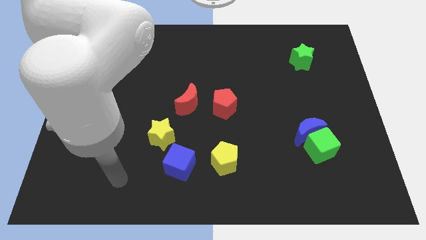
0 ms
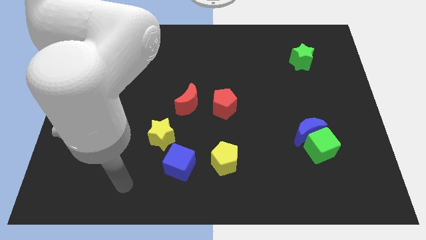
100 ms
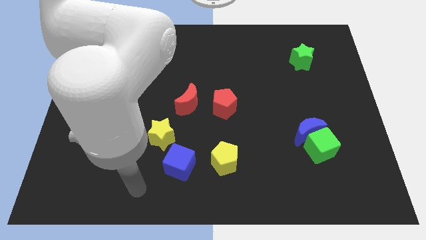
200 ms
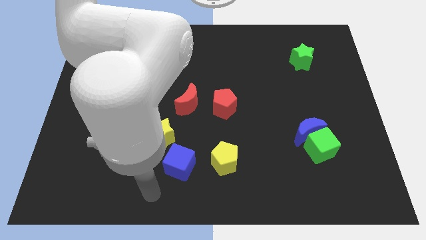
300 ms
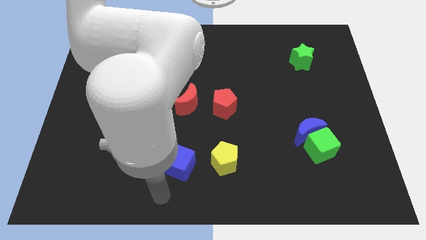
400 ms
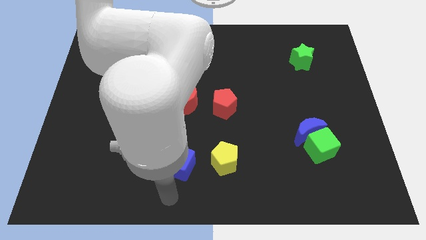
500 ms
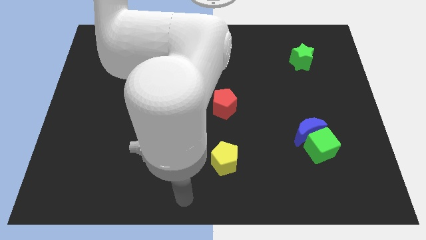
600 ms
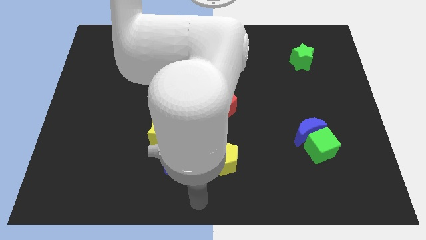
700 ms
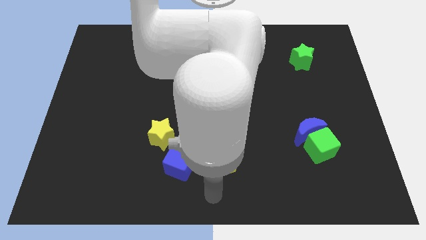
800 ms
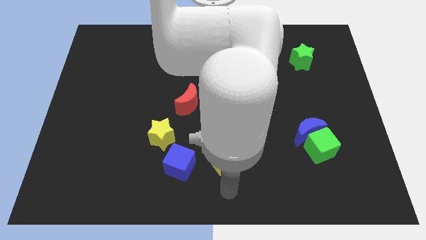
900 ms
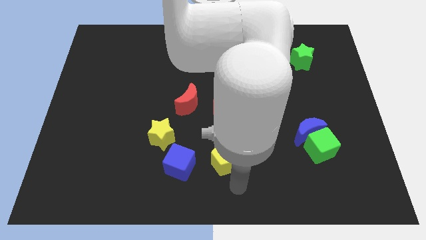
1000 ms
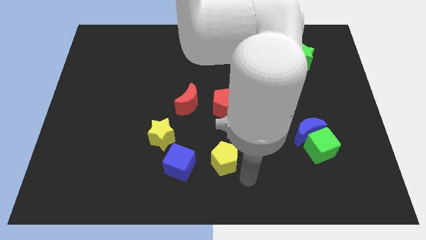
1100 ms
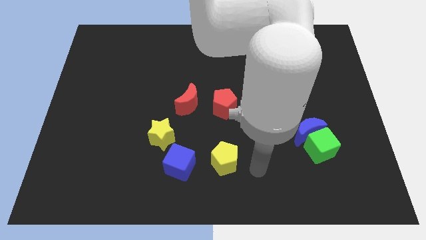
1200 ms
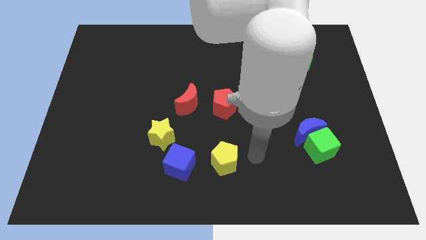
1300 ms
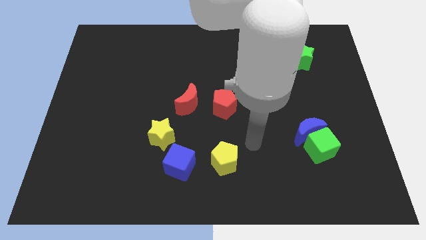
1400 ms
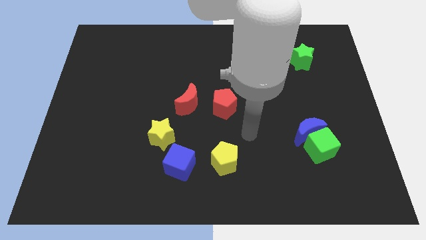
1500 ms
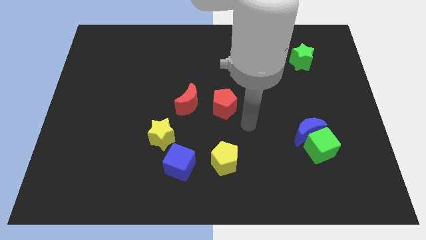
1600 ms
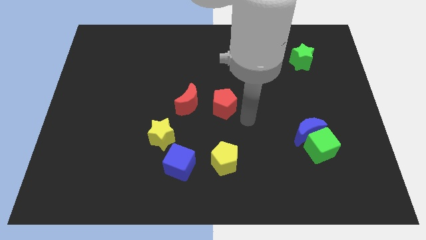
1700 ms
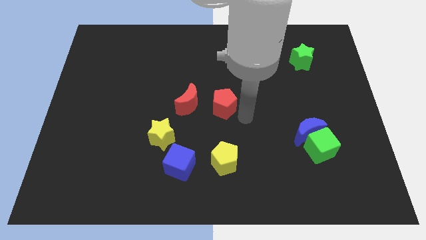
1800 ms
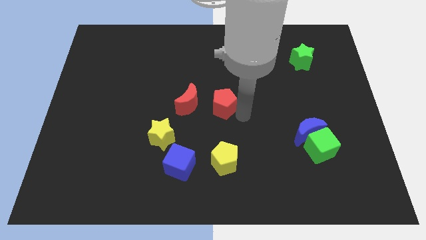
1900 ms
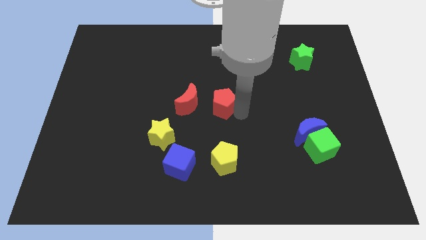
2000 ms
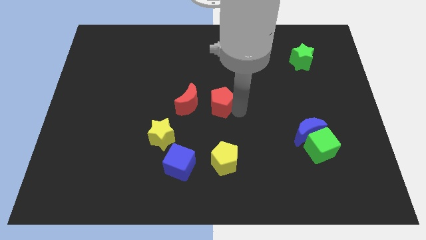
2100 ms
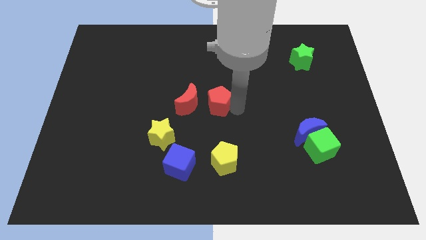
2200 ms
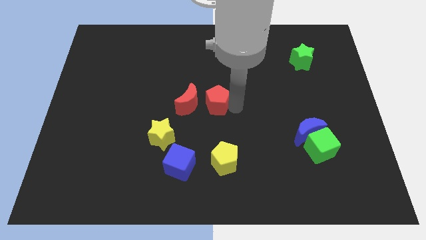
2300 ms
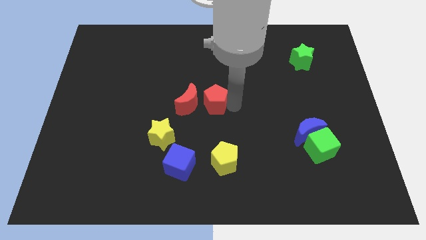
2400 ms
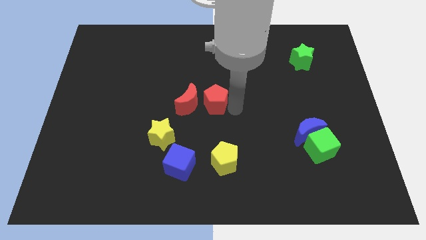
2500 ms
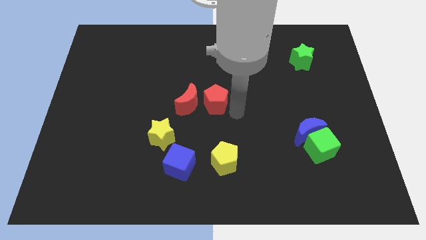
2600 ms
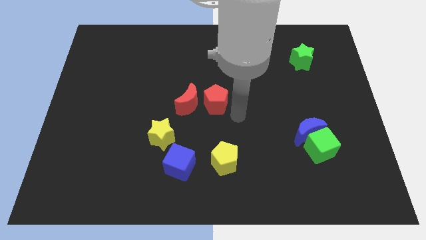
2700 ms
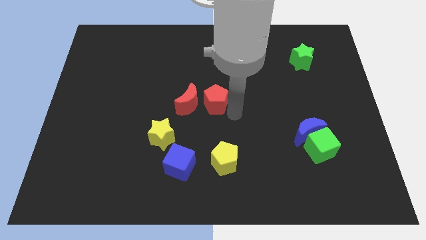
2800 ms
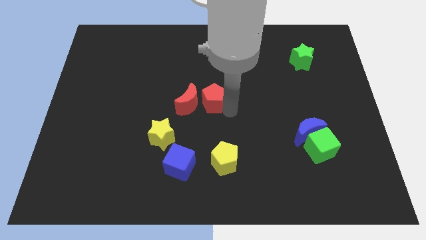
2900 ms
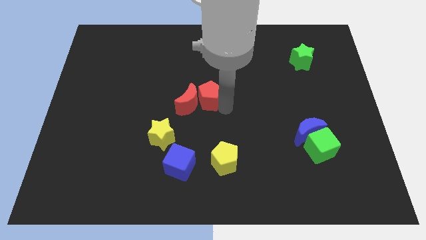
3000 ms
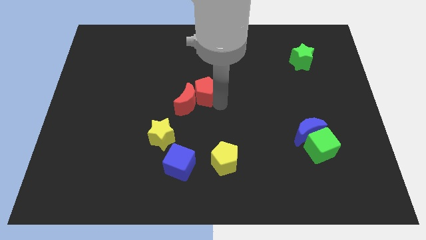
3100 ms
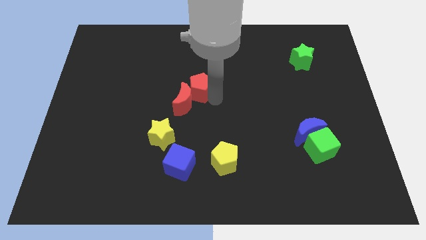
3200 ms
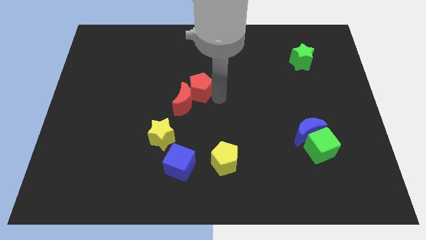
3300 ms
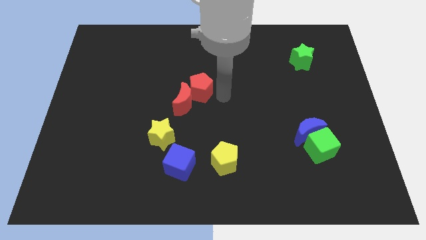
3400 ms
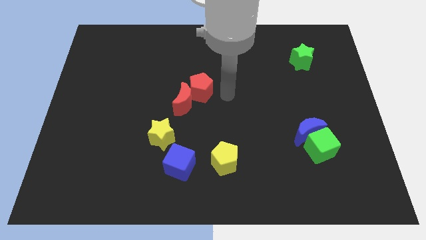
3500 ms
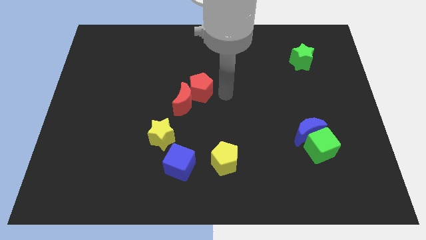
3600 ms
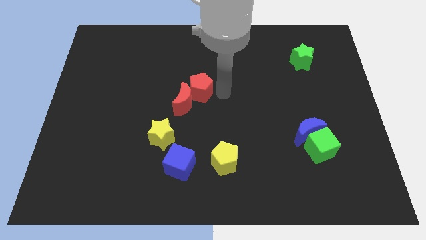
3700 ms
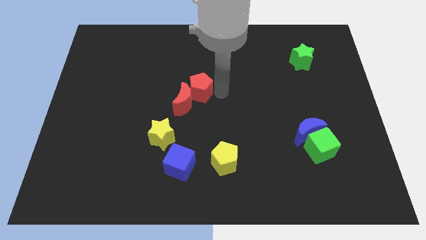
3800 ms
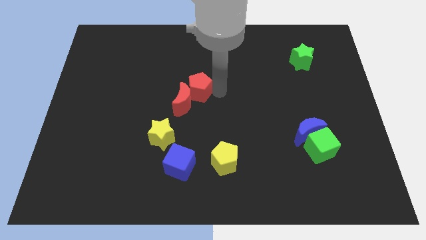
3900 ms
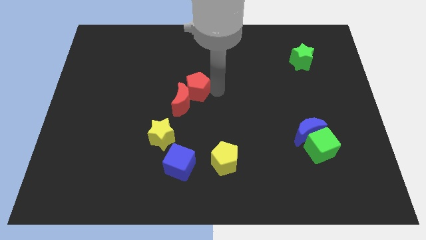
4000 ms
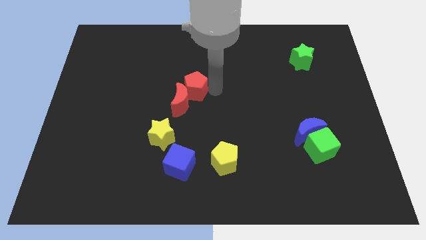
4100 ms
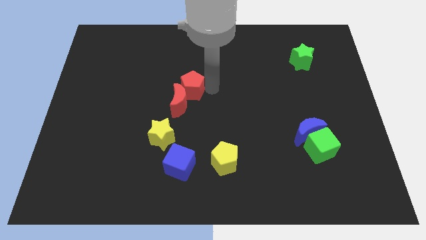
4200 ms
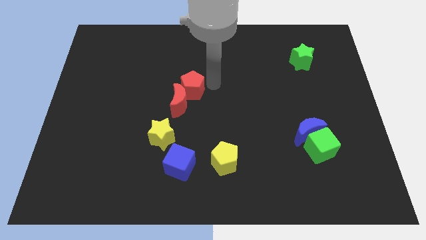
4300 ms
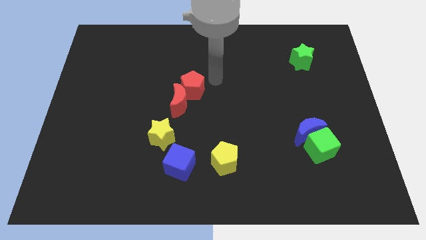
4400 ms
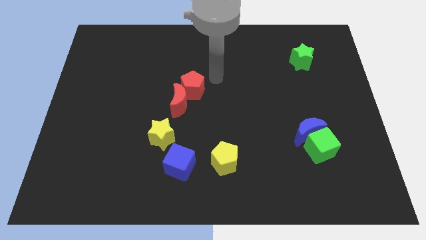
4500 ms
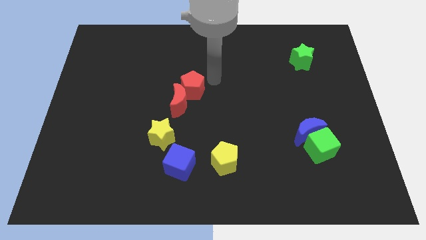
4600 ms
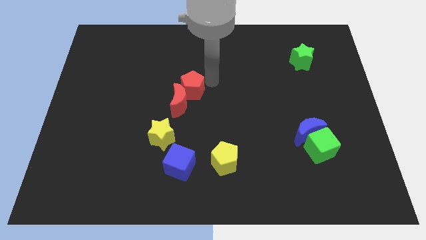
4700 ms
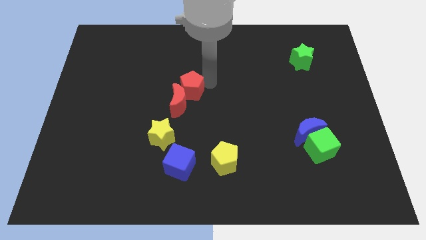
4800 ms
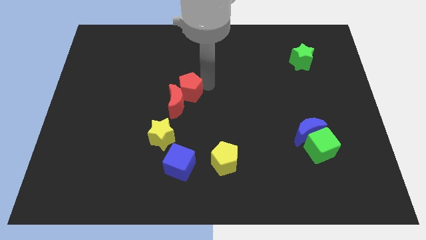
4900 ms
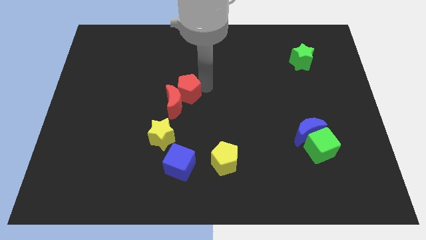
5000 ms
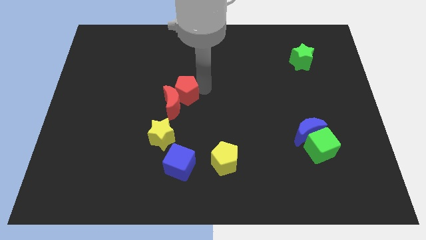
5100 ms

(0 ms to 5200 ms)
push the red pentagon to the top of the yellow star

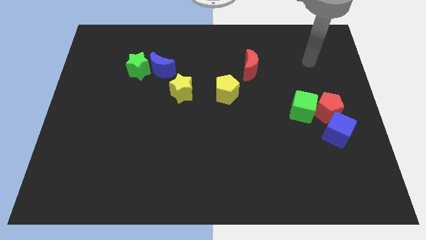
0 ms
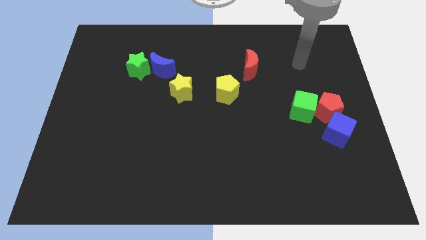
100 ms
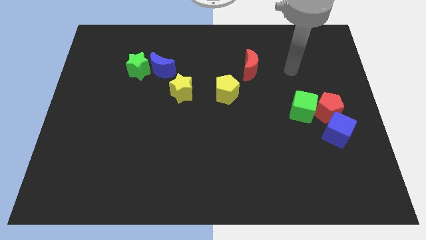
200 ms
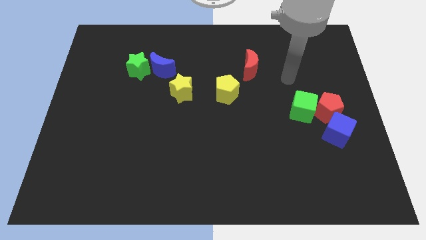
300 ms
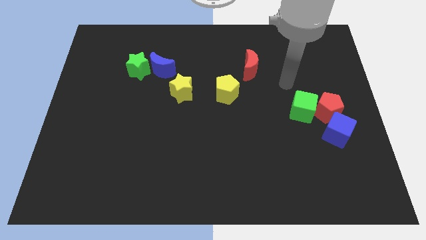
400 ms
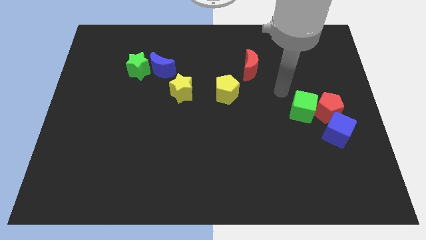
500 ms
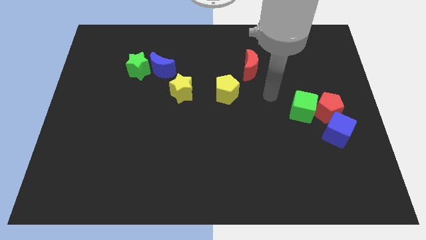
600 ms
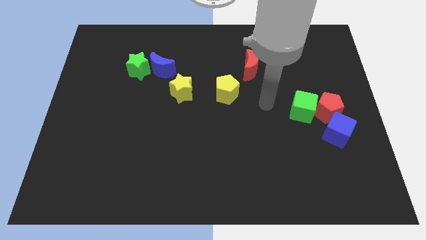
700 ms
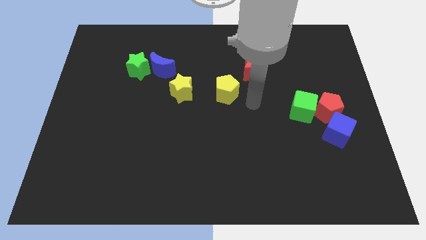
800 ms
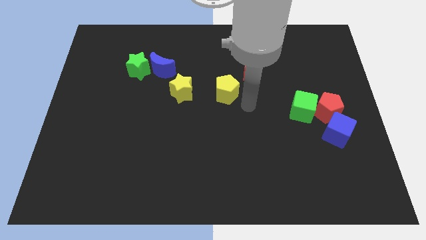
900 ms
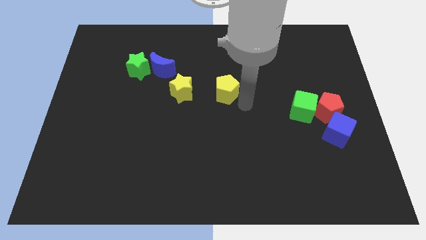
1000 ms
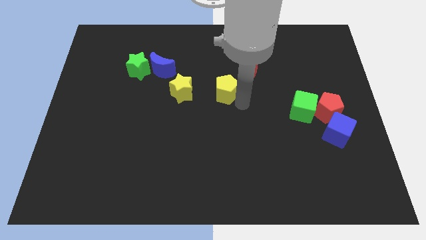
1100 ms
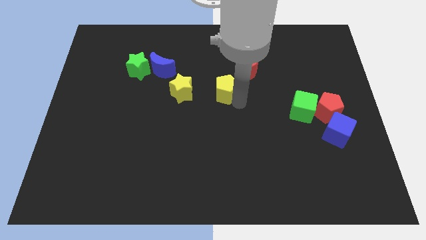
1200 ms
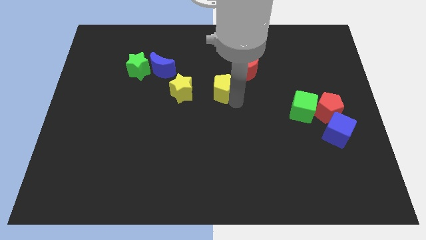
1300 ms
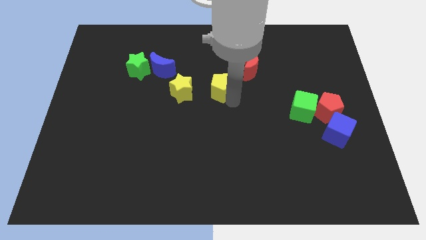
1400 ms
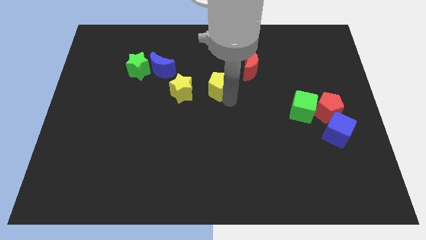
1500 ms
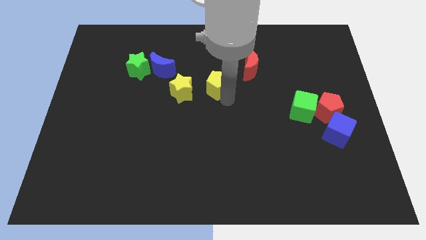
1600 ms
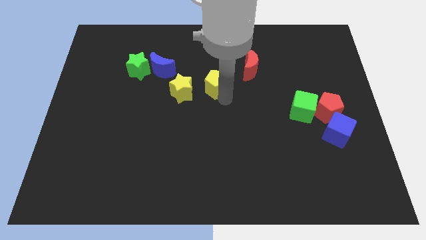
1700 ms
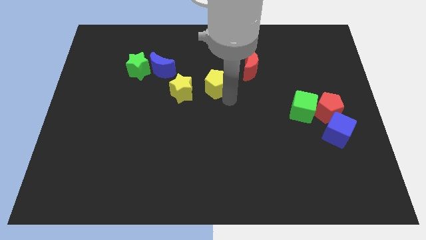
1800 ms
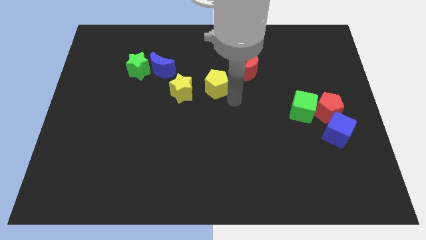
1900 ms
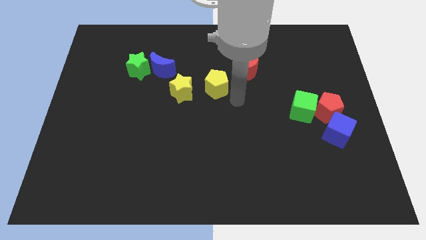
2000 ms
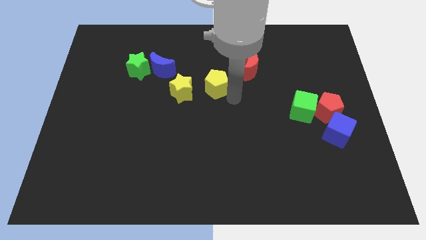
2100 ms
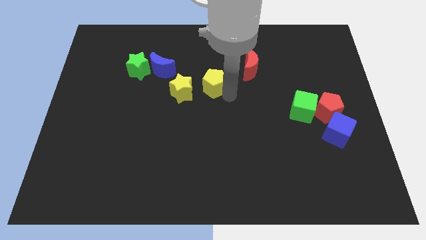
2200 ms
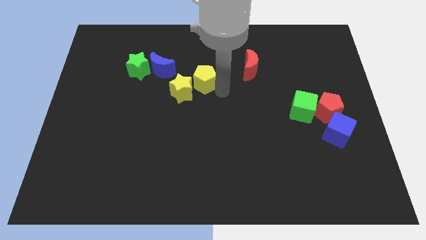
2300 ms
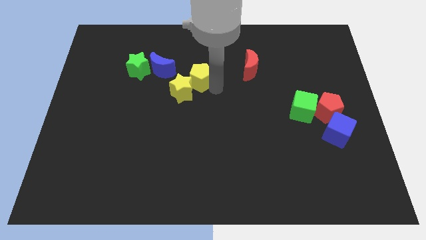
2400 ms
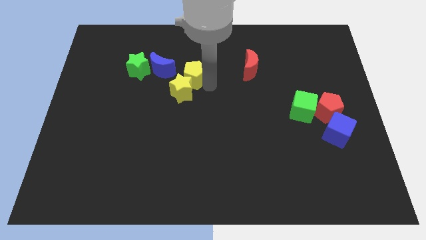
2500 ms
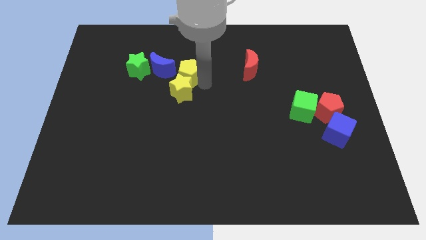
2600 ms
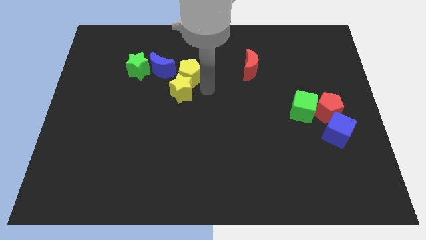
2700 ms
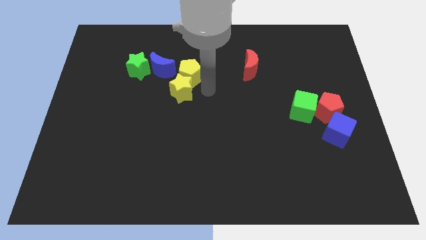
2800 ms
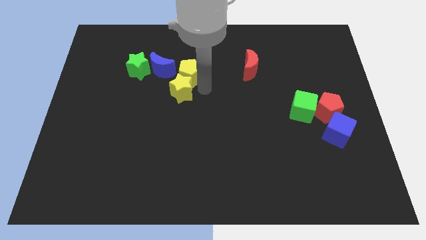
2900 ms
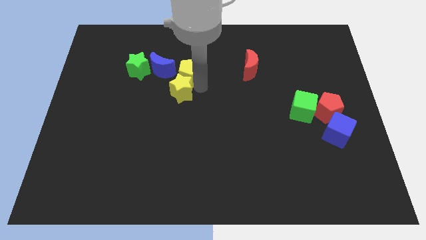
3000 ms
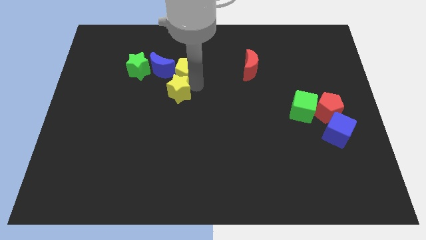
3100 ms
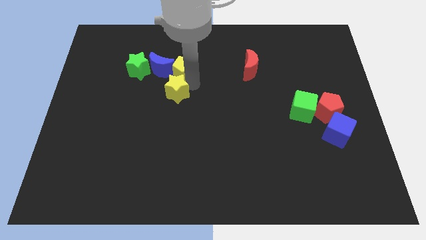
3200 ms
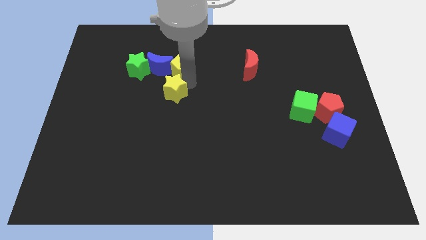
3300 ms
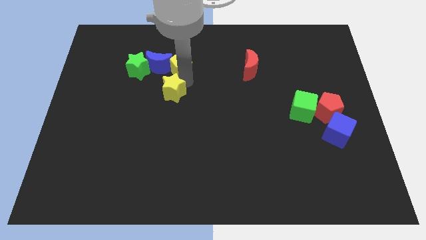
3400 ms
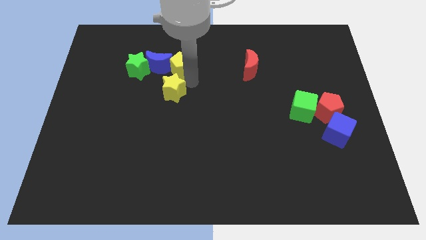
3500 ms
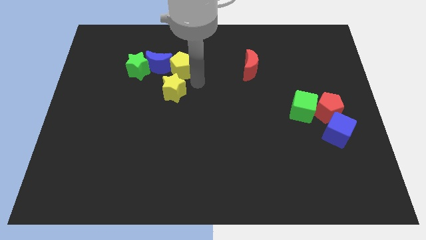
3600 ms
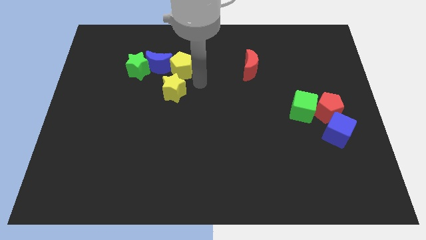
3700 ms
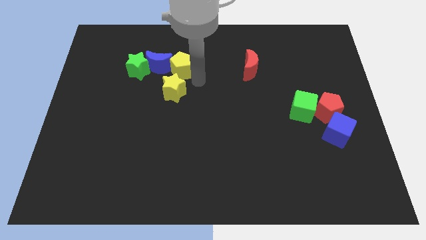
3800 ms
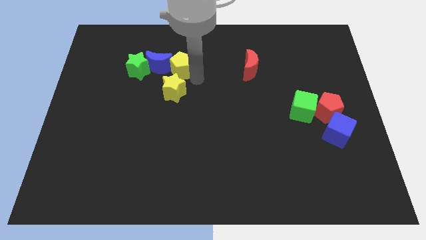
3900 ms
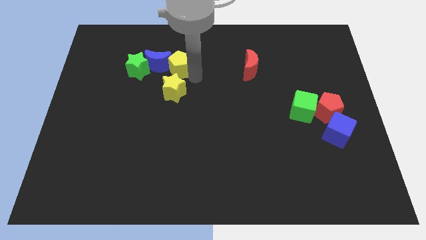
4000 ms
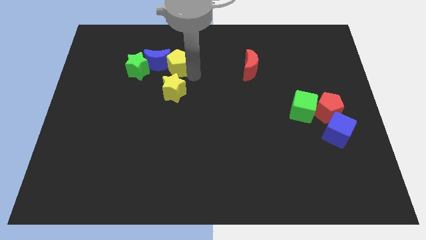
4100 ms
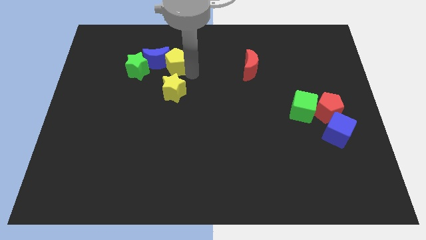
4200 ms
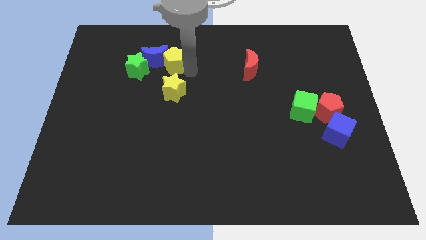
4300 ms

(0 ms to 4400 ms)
slide the yellow pentagon diagonally up and to the right of the green star
